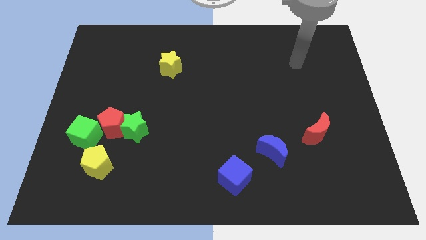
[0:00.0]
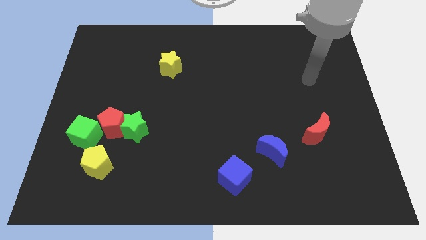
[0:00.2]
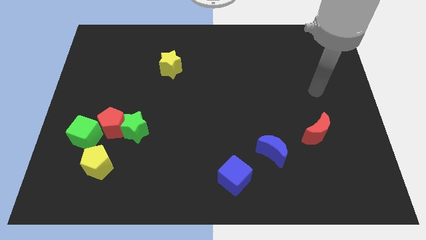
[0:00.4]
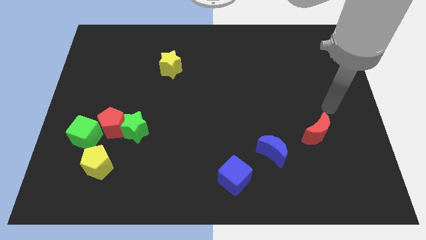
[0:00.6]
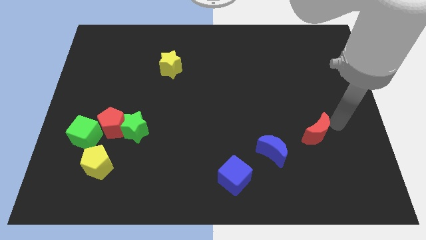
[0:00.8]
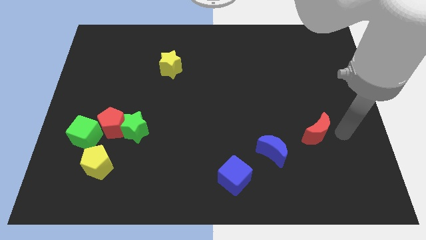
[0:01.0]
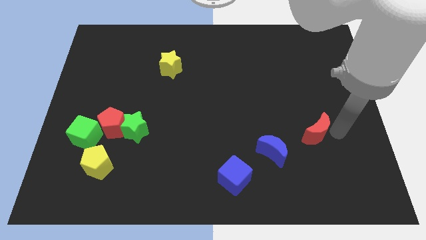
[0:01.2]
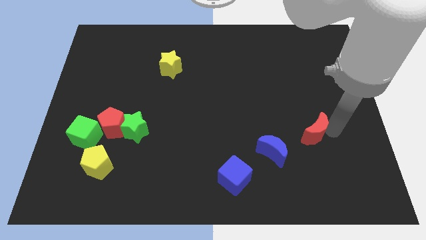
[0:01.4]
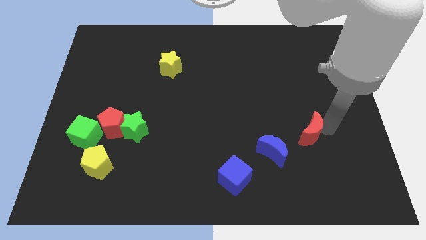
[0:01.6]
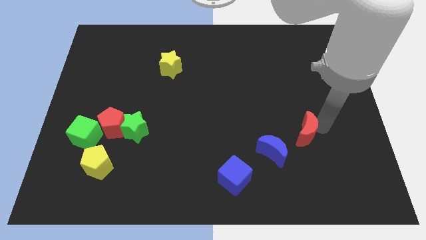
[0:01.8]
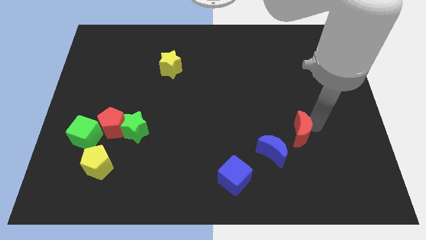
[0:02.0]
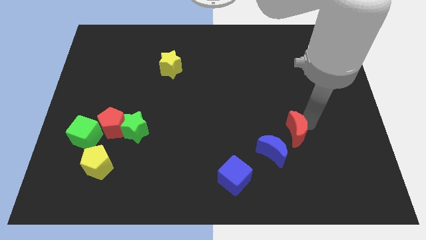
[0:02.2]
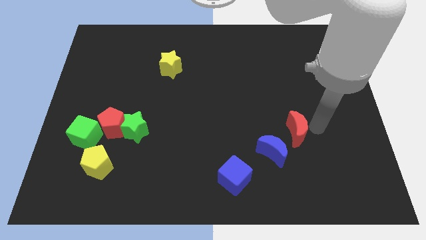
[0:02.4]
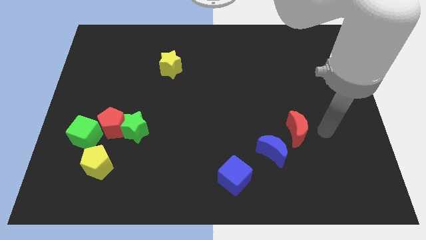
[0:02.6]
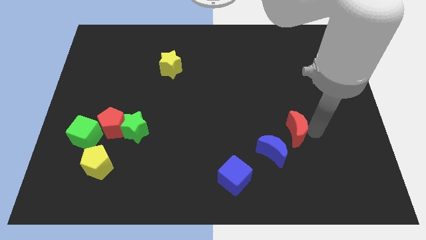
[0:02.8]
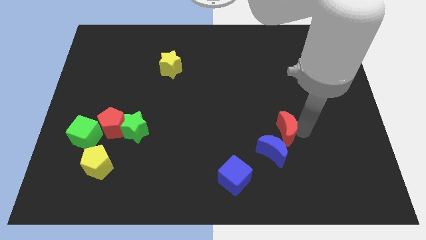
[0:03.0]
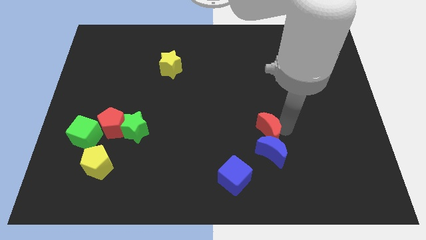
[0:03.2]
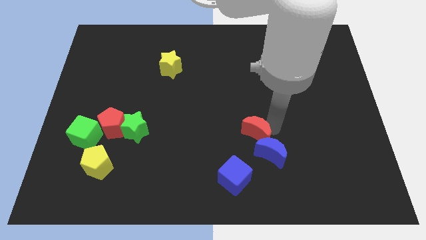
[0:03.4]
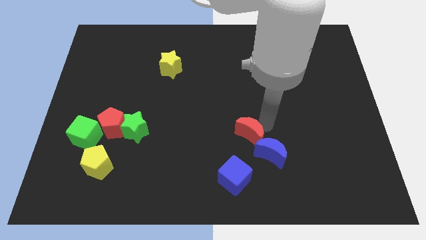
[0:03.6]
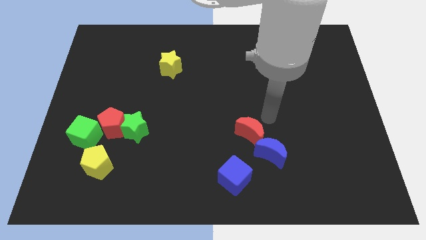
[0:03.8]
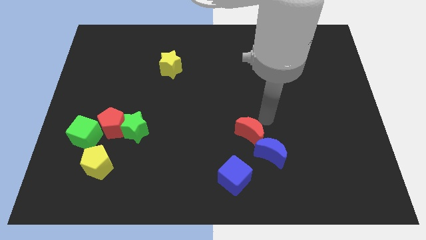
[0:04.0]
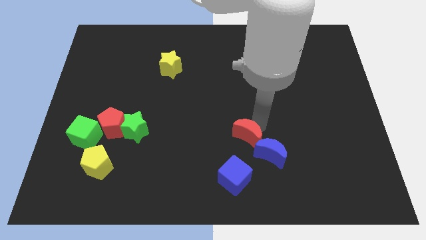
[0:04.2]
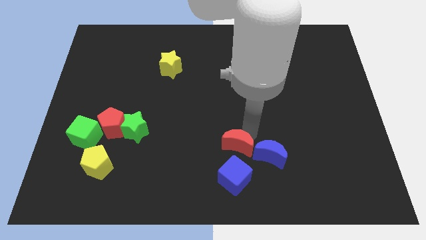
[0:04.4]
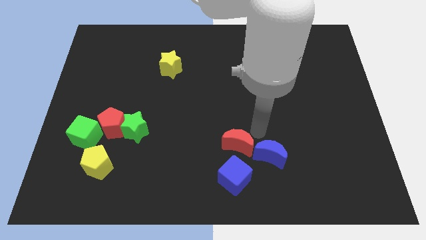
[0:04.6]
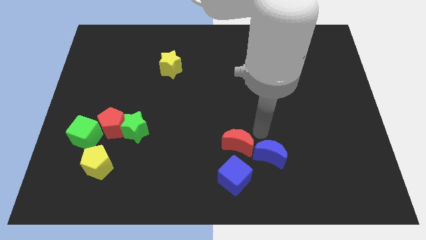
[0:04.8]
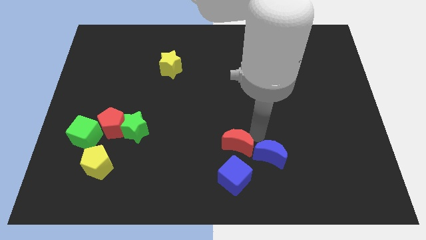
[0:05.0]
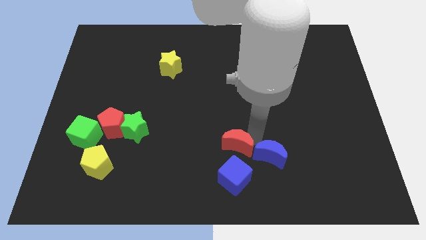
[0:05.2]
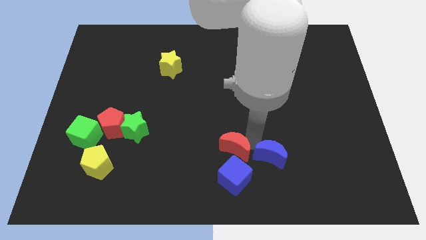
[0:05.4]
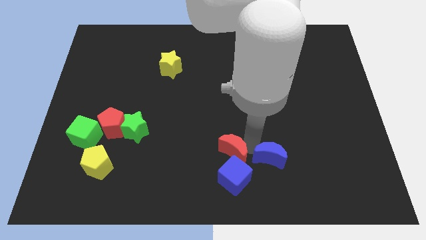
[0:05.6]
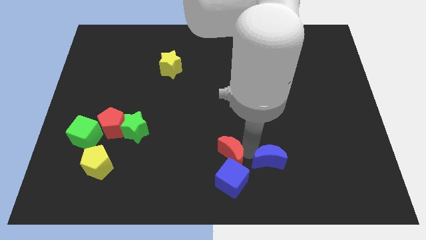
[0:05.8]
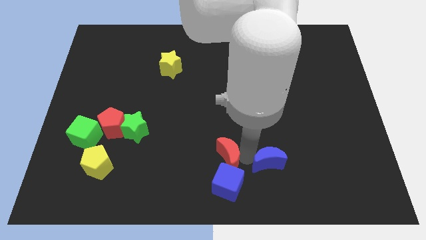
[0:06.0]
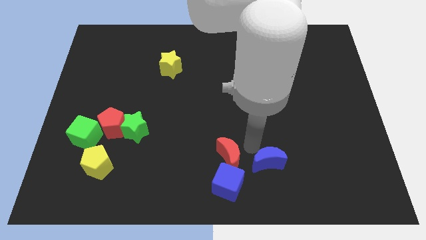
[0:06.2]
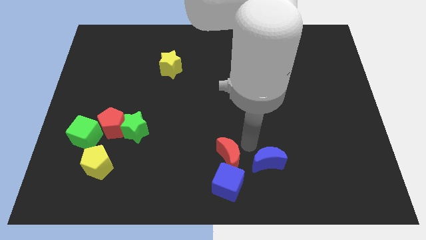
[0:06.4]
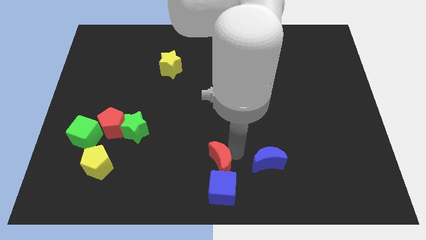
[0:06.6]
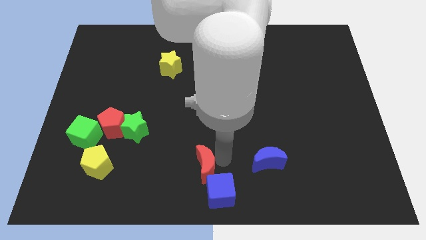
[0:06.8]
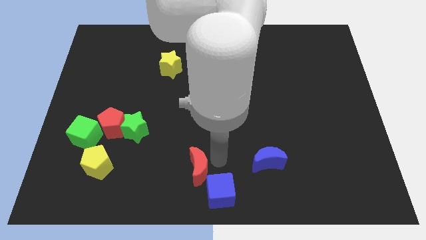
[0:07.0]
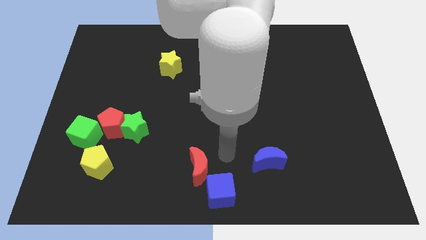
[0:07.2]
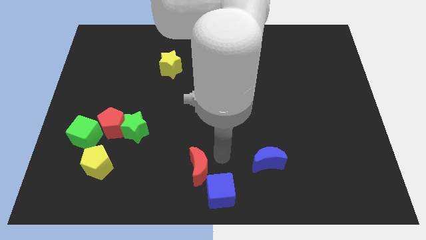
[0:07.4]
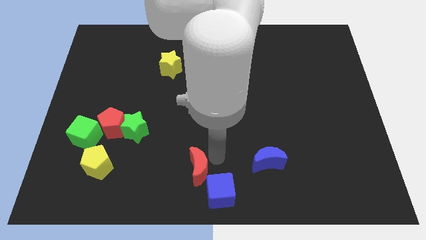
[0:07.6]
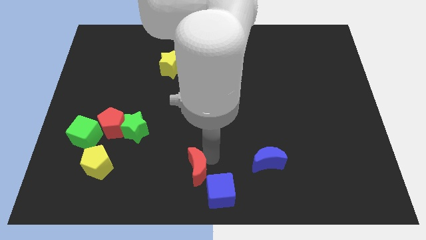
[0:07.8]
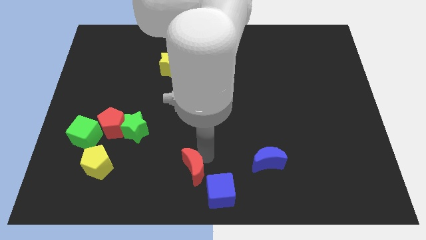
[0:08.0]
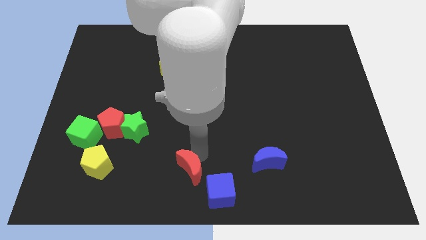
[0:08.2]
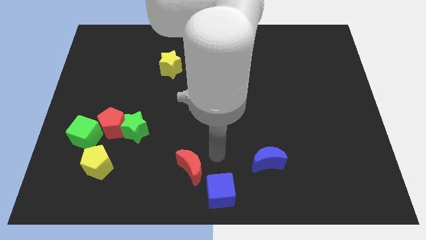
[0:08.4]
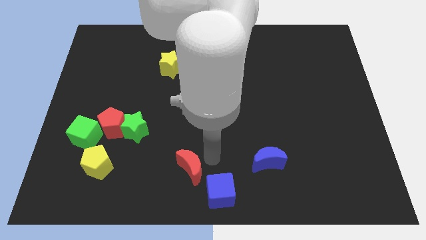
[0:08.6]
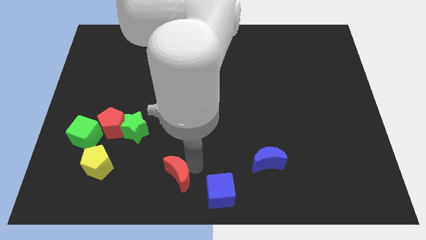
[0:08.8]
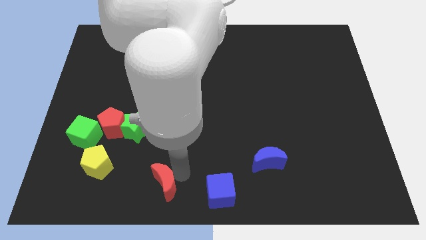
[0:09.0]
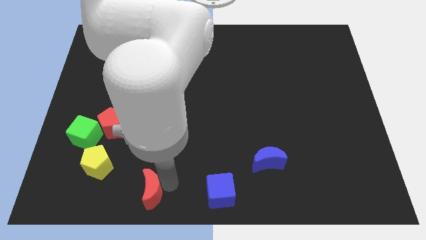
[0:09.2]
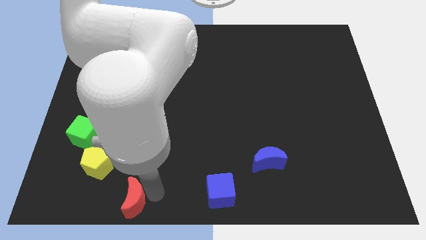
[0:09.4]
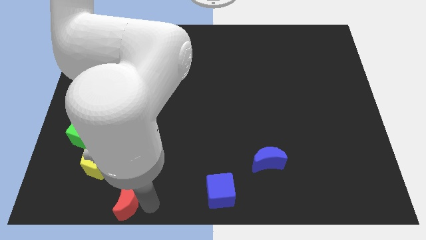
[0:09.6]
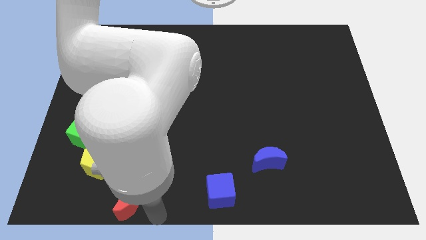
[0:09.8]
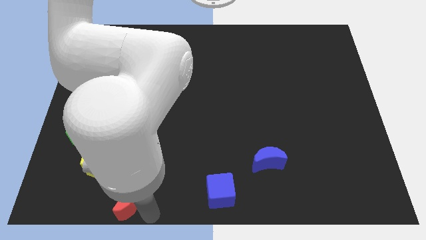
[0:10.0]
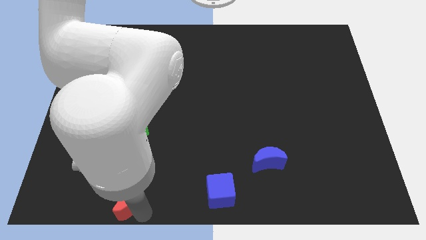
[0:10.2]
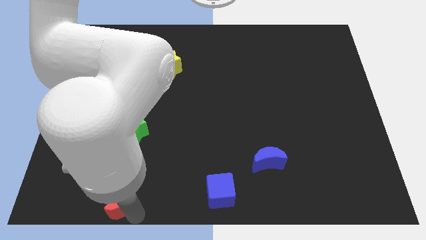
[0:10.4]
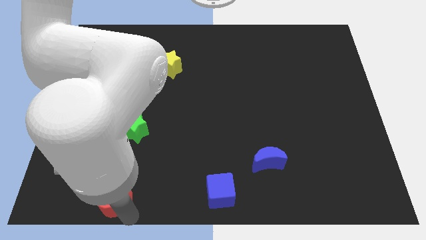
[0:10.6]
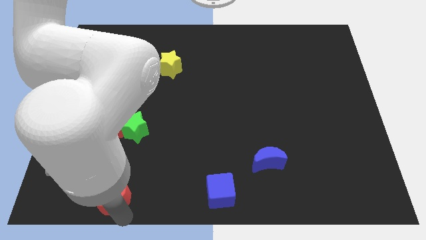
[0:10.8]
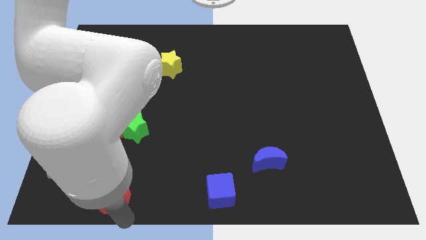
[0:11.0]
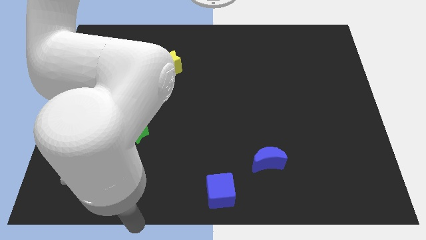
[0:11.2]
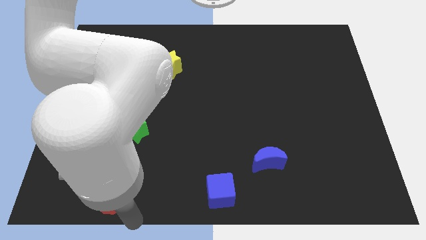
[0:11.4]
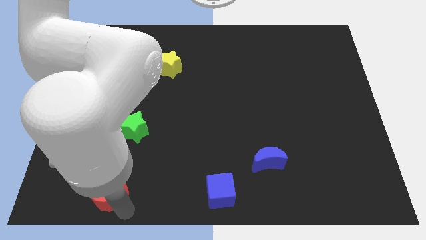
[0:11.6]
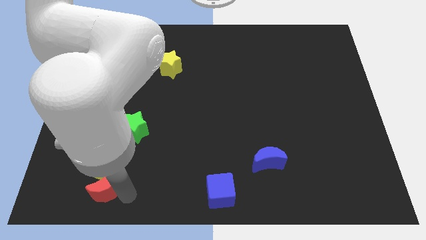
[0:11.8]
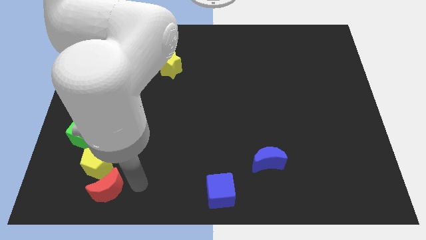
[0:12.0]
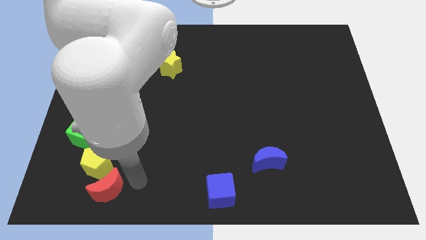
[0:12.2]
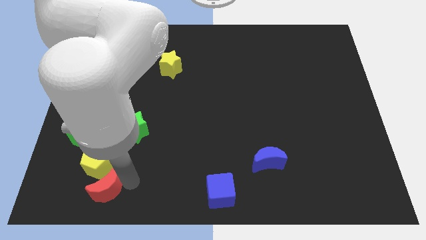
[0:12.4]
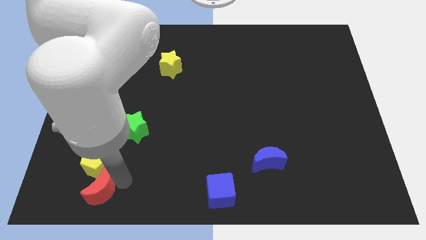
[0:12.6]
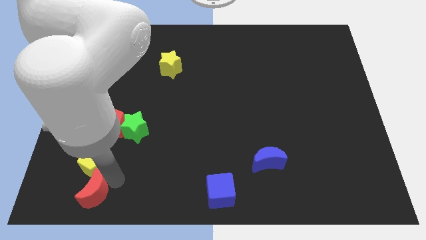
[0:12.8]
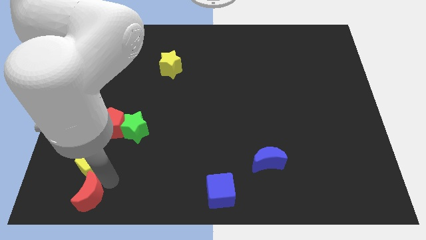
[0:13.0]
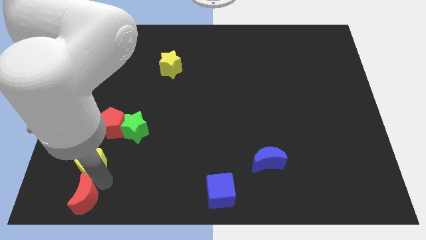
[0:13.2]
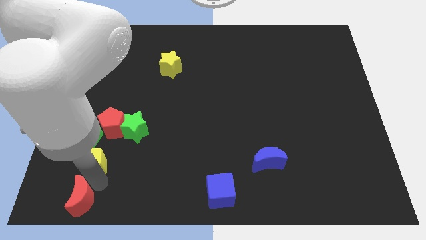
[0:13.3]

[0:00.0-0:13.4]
move the red moon to the bottom left of the board
